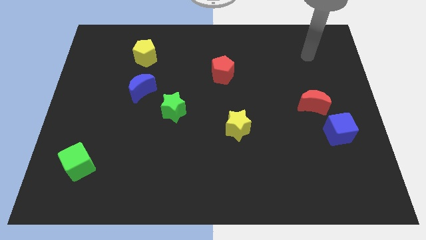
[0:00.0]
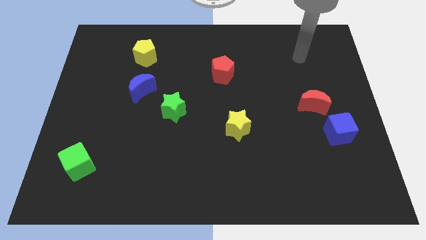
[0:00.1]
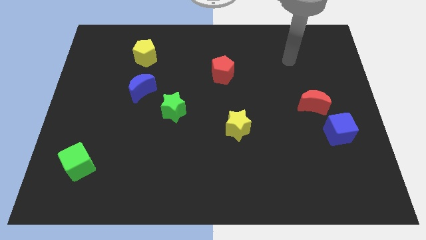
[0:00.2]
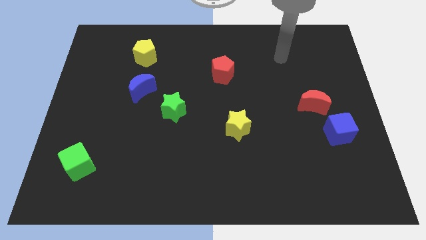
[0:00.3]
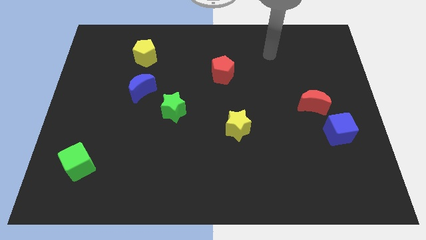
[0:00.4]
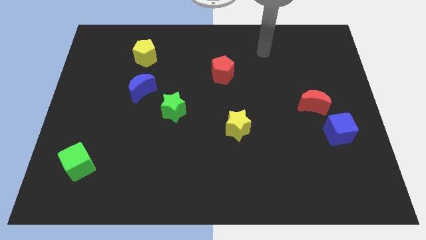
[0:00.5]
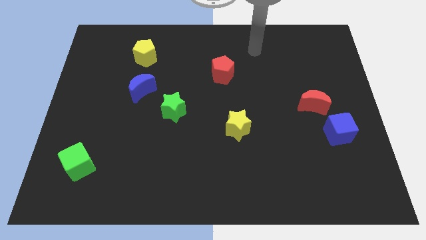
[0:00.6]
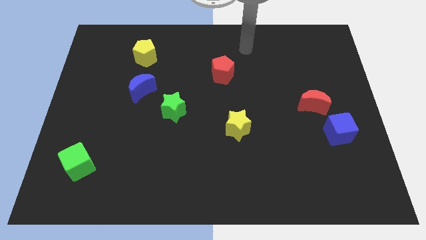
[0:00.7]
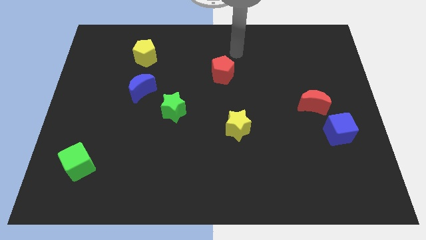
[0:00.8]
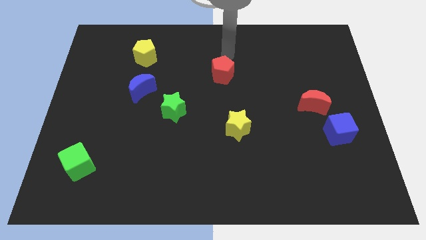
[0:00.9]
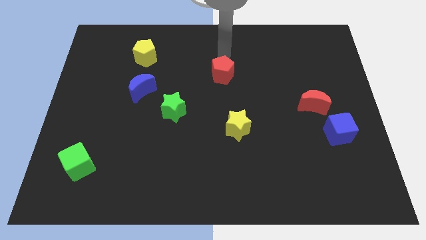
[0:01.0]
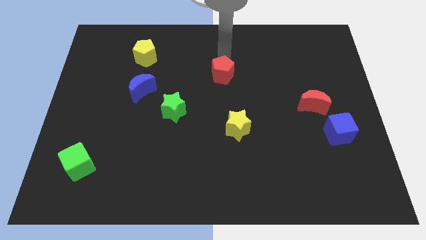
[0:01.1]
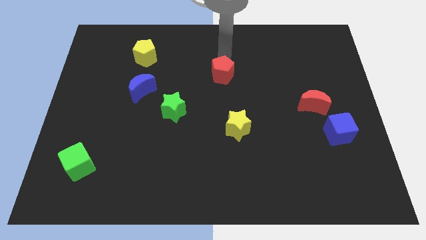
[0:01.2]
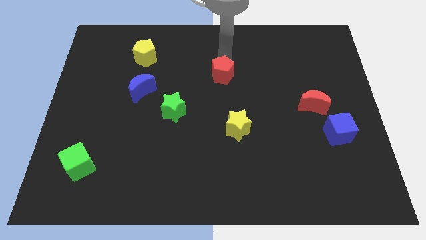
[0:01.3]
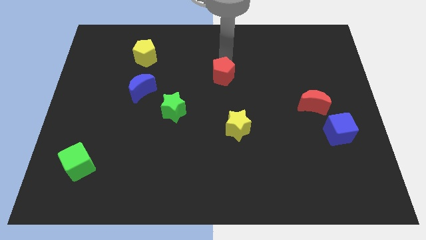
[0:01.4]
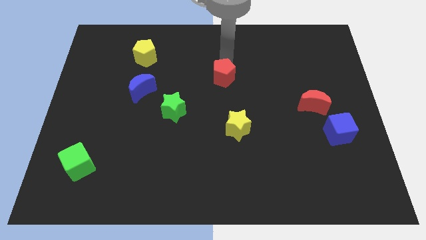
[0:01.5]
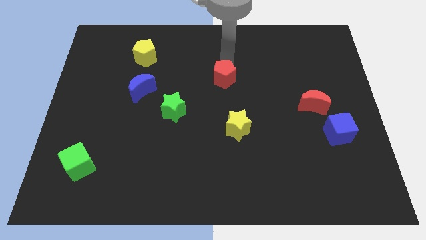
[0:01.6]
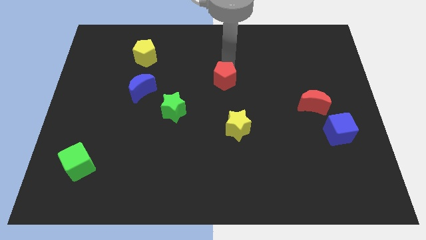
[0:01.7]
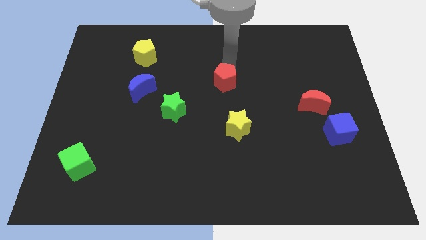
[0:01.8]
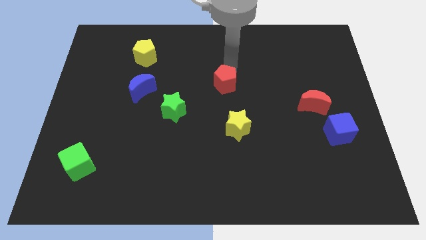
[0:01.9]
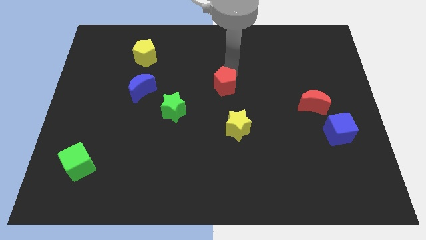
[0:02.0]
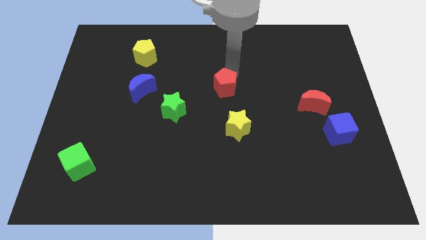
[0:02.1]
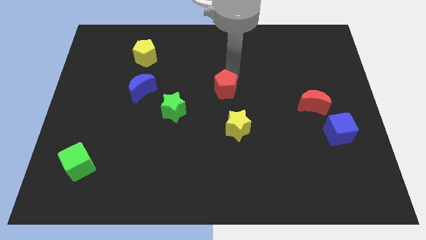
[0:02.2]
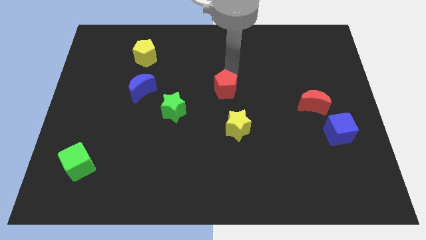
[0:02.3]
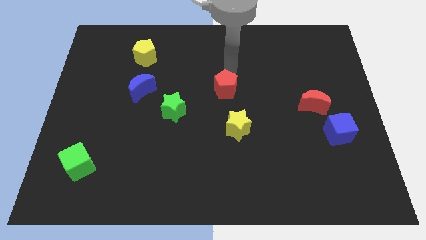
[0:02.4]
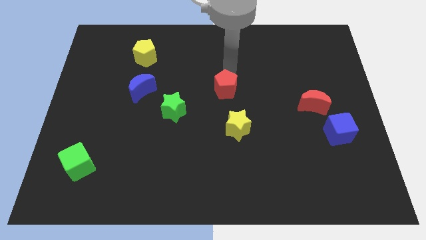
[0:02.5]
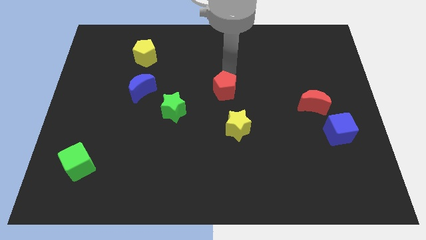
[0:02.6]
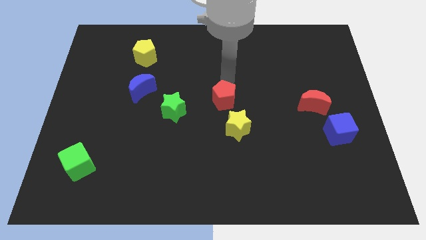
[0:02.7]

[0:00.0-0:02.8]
slightly push the red pentagon downwards

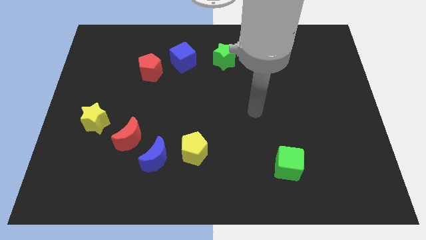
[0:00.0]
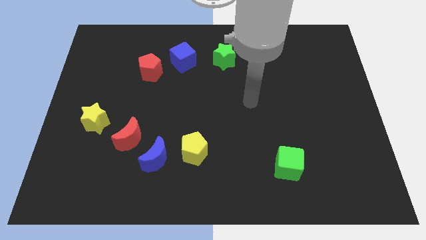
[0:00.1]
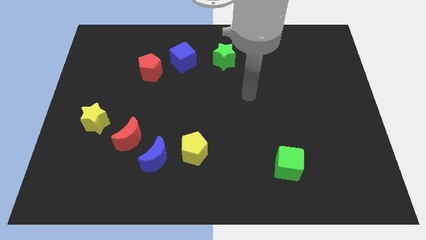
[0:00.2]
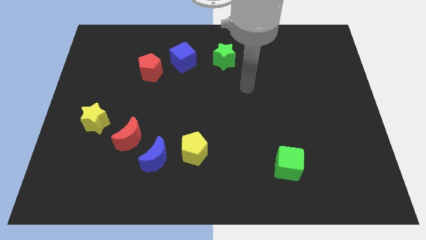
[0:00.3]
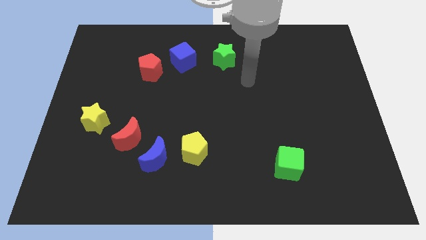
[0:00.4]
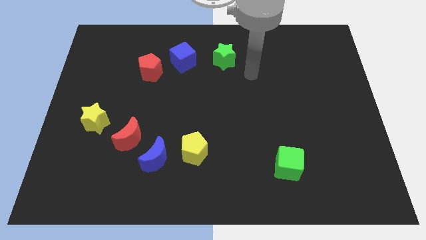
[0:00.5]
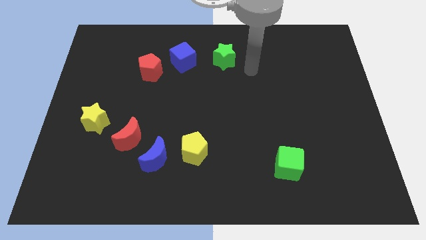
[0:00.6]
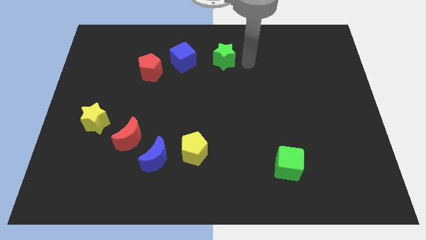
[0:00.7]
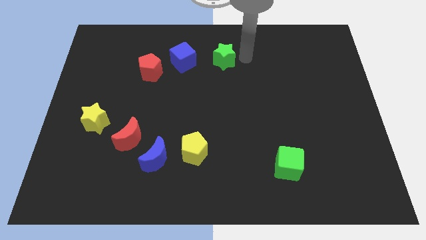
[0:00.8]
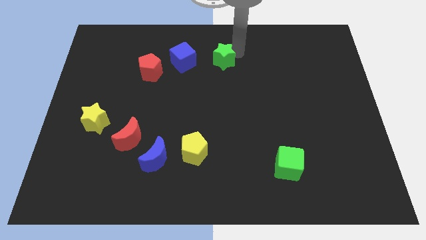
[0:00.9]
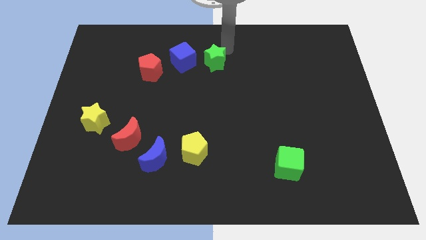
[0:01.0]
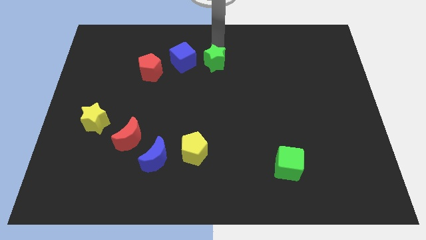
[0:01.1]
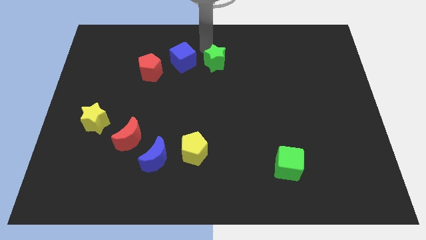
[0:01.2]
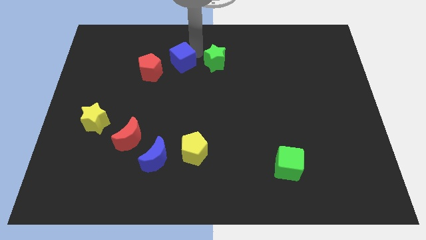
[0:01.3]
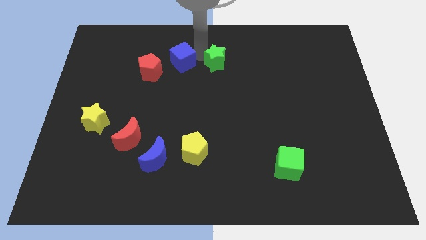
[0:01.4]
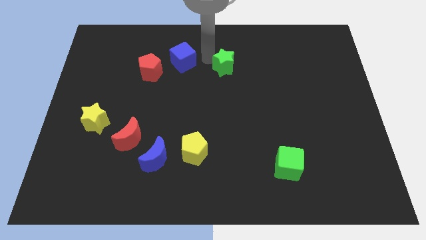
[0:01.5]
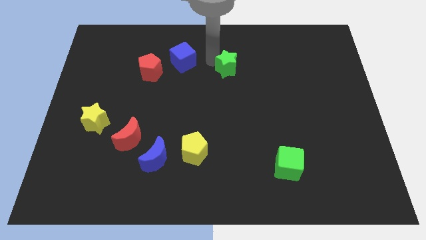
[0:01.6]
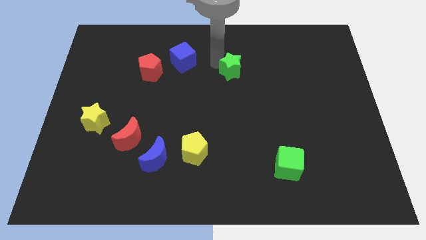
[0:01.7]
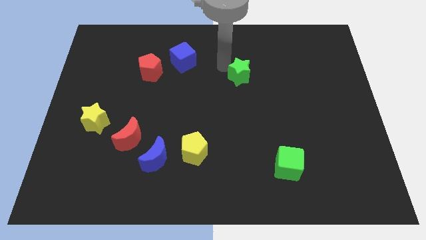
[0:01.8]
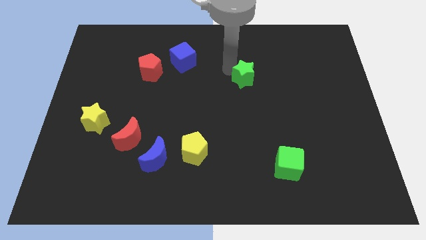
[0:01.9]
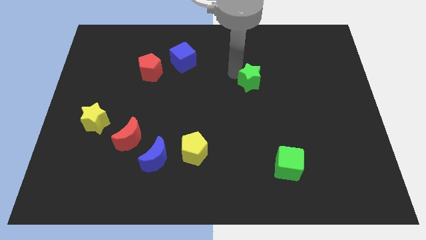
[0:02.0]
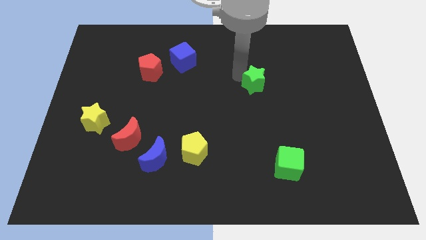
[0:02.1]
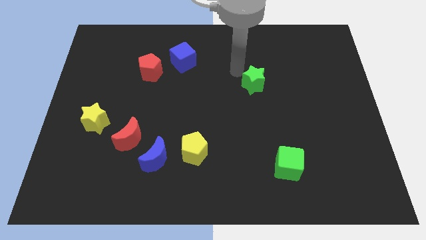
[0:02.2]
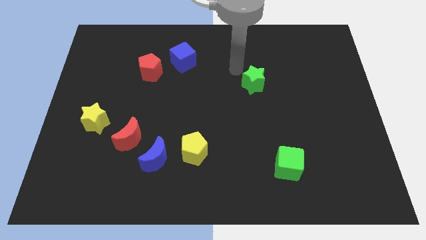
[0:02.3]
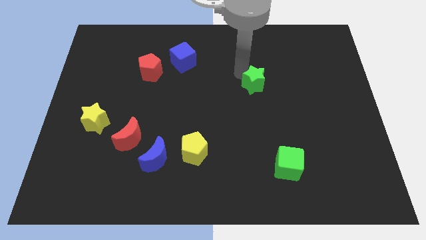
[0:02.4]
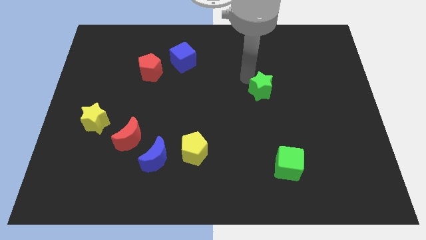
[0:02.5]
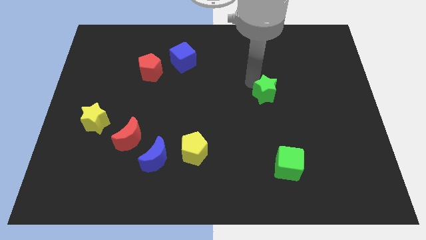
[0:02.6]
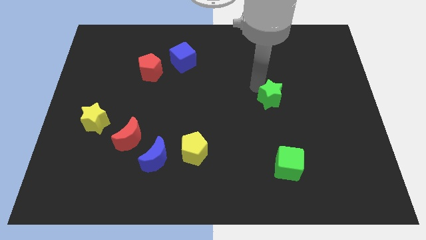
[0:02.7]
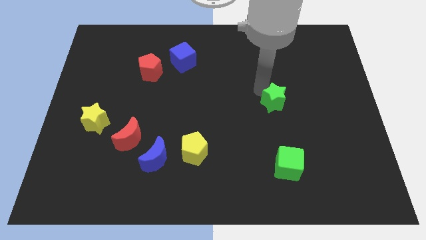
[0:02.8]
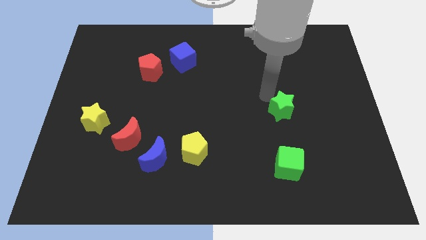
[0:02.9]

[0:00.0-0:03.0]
push the green star downwards and to the right

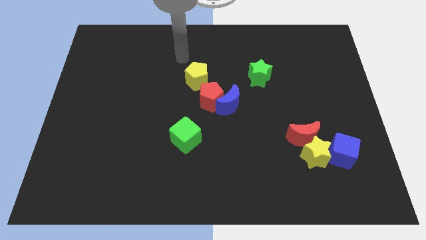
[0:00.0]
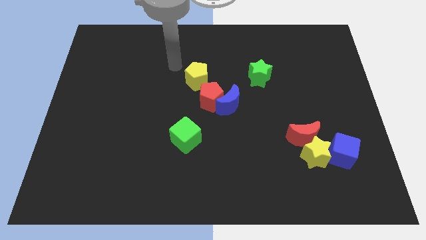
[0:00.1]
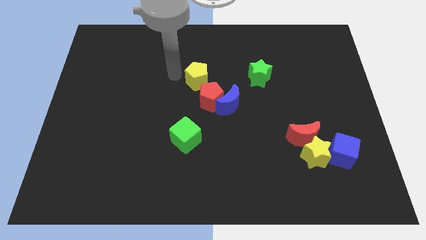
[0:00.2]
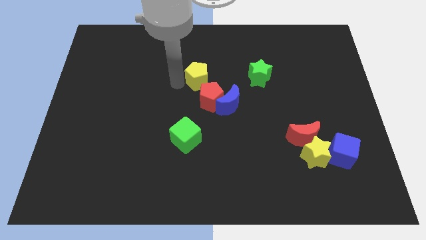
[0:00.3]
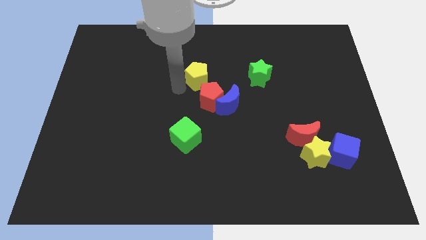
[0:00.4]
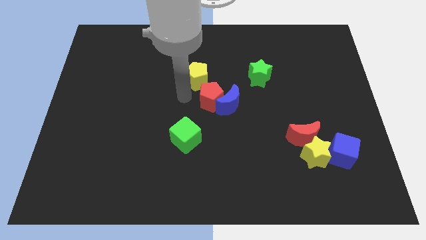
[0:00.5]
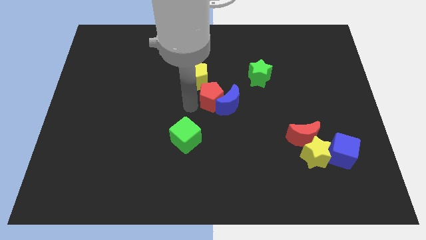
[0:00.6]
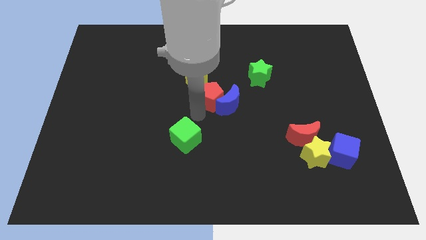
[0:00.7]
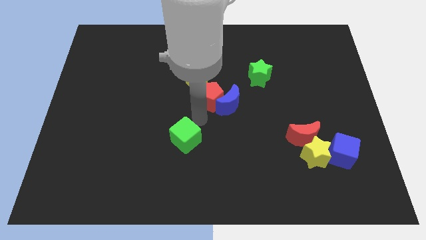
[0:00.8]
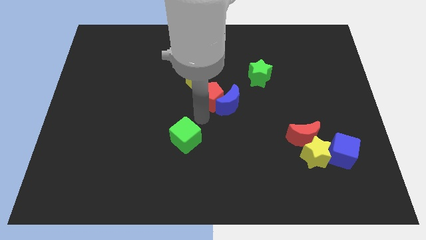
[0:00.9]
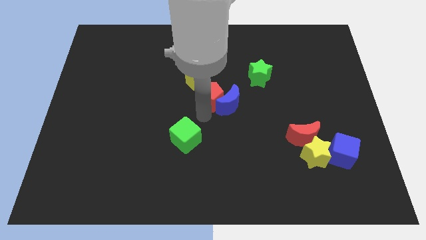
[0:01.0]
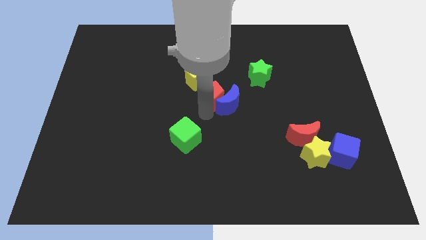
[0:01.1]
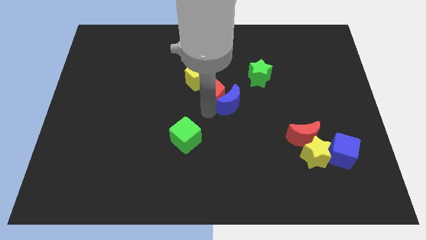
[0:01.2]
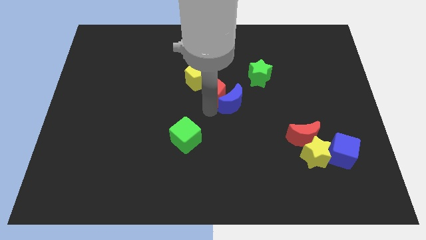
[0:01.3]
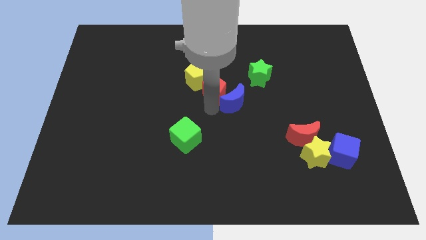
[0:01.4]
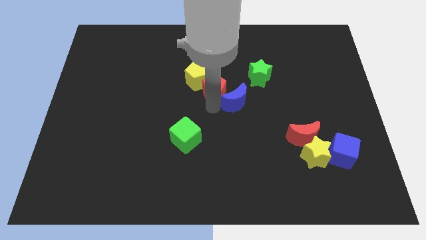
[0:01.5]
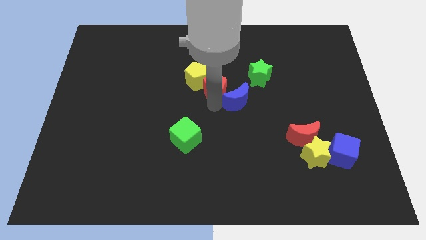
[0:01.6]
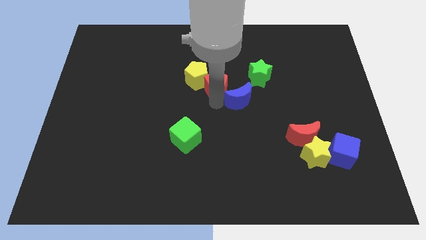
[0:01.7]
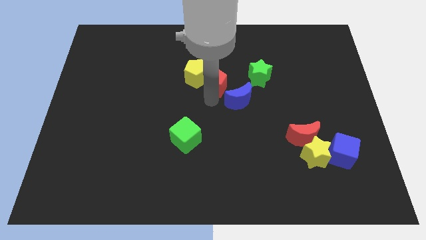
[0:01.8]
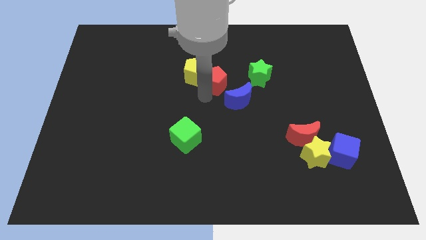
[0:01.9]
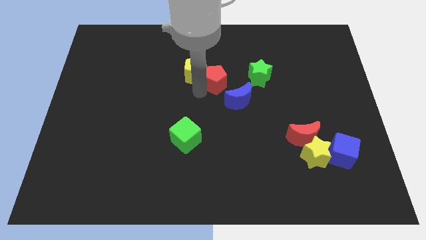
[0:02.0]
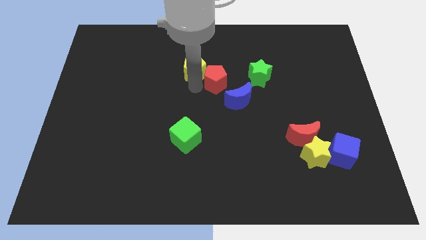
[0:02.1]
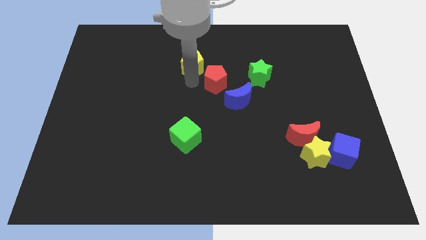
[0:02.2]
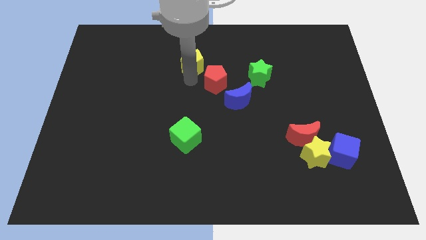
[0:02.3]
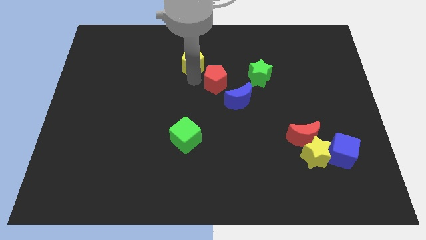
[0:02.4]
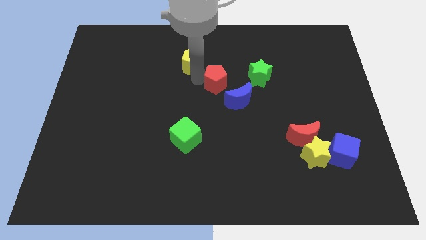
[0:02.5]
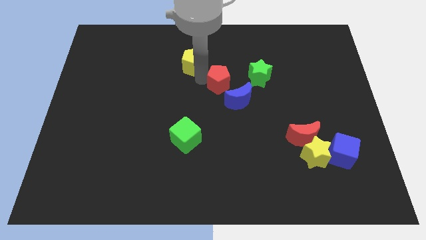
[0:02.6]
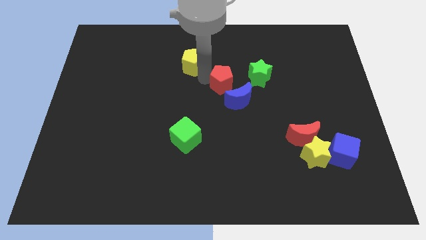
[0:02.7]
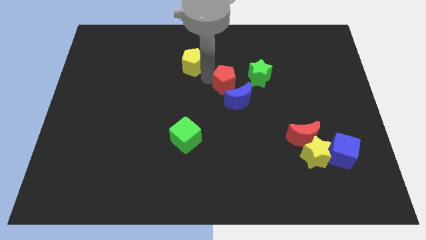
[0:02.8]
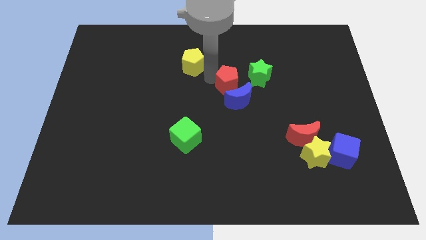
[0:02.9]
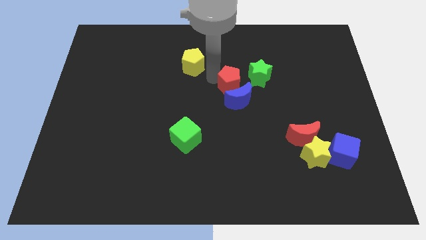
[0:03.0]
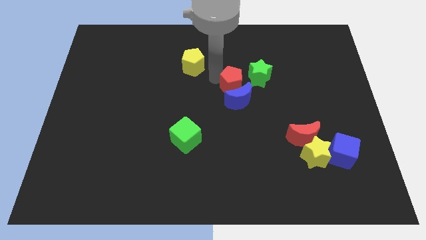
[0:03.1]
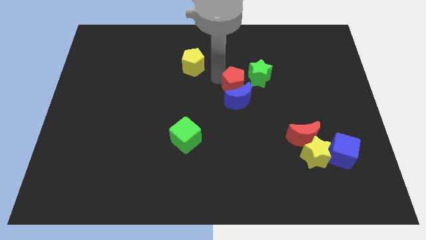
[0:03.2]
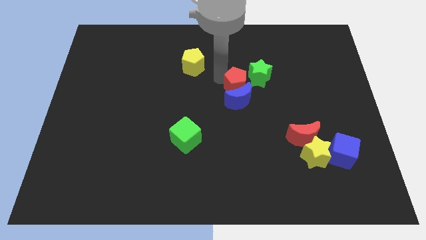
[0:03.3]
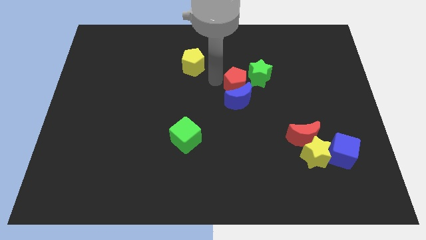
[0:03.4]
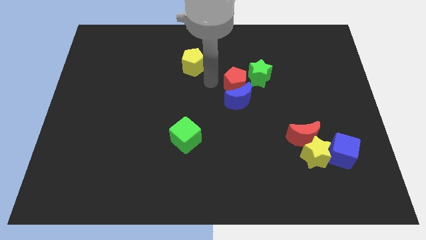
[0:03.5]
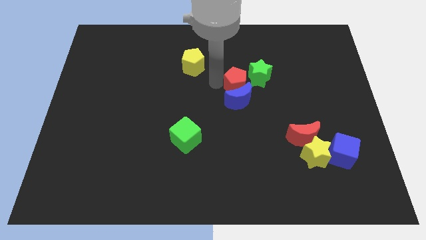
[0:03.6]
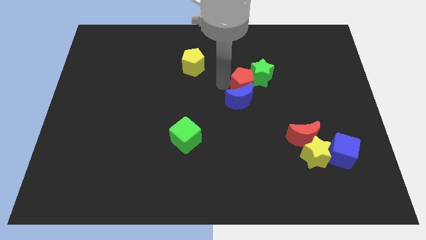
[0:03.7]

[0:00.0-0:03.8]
push the red pentagon slightly right
